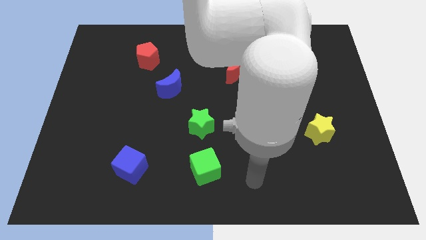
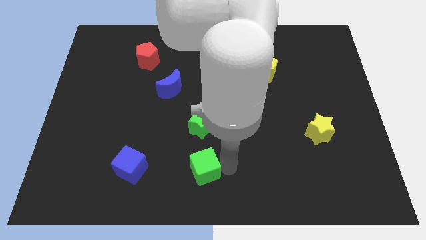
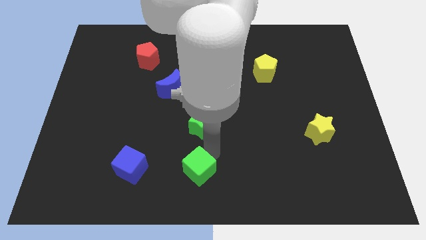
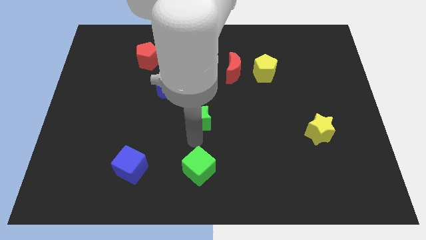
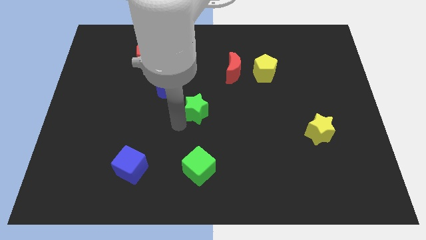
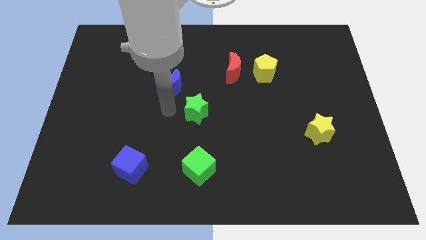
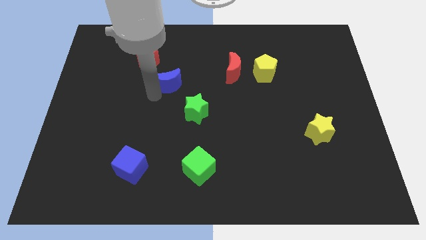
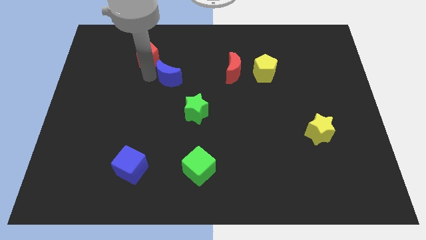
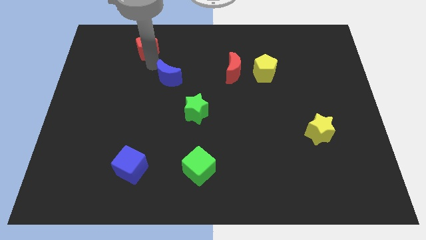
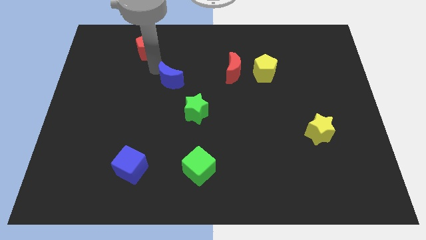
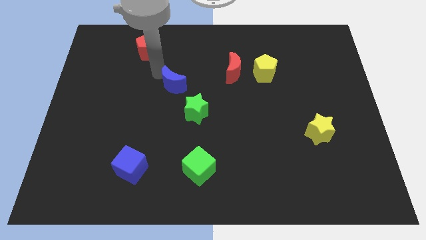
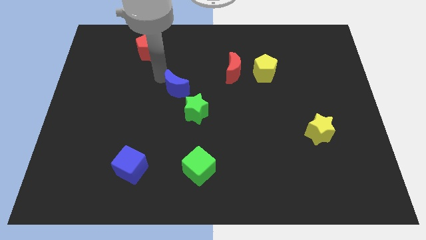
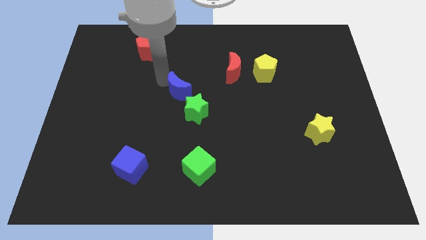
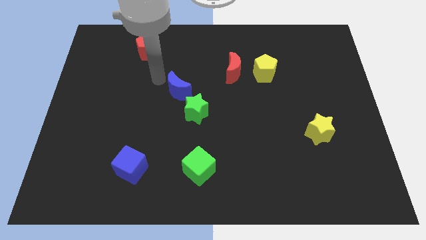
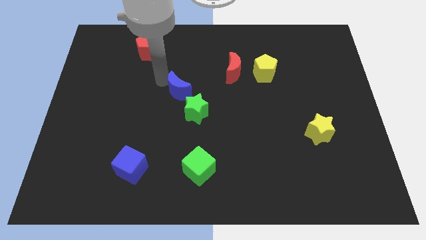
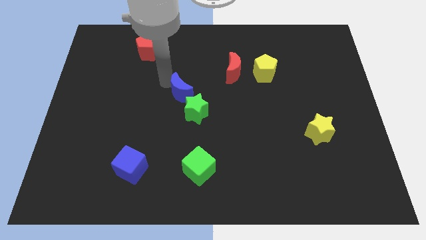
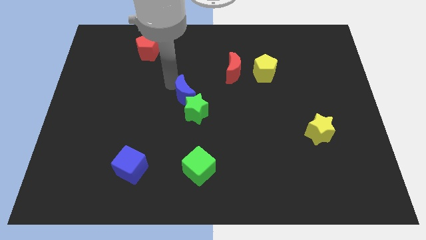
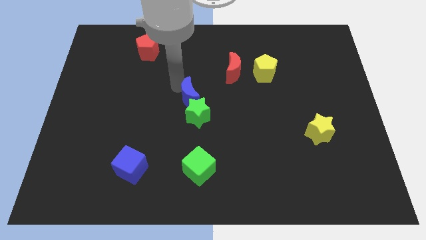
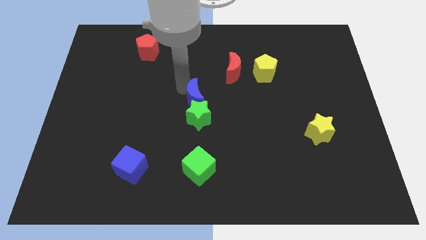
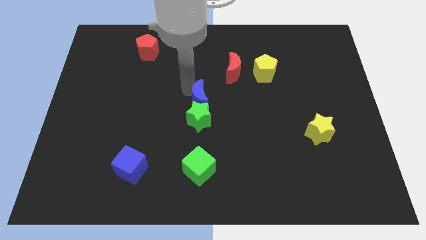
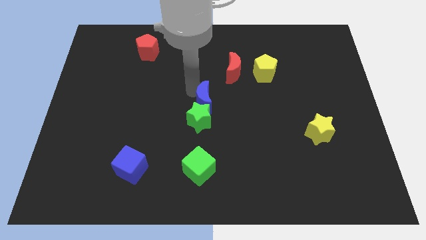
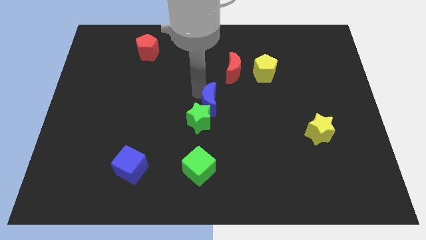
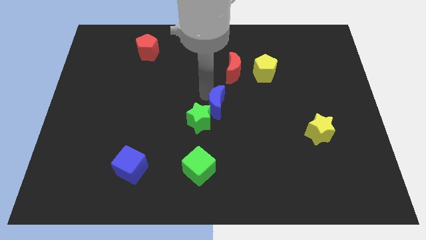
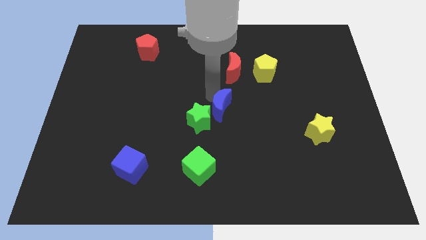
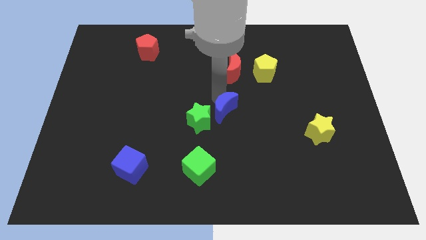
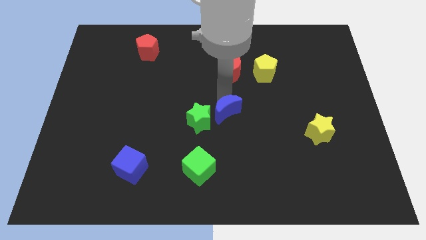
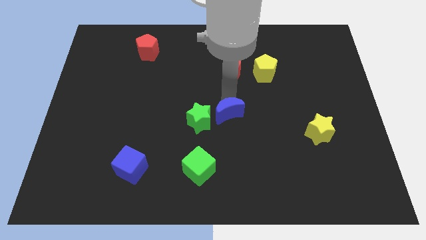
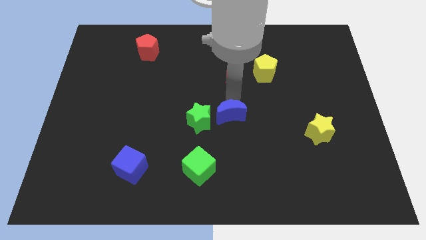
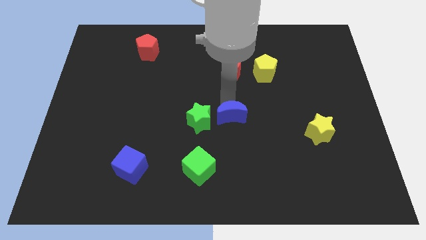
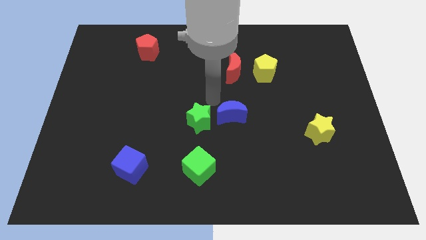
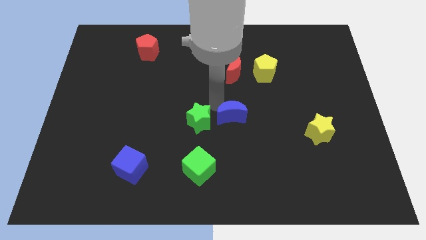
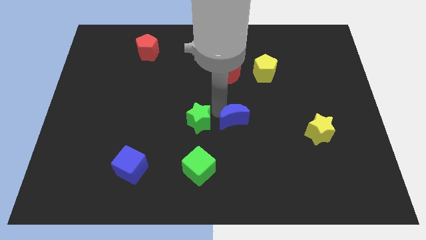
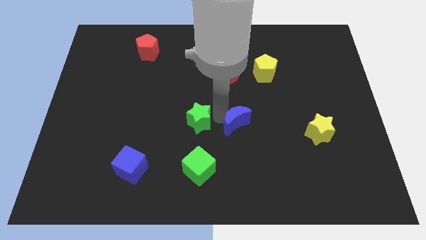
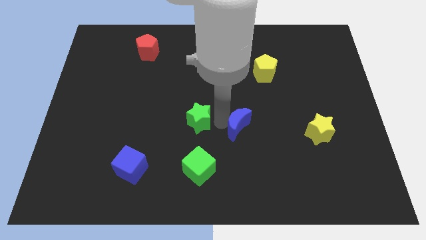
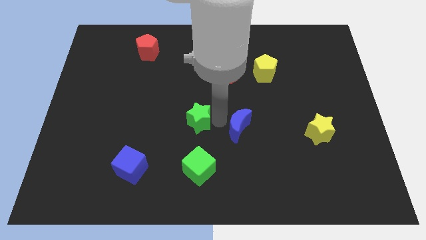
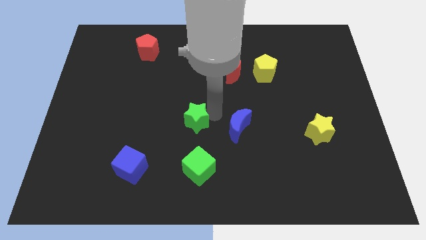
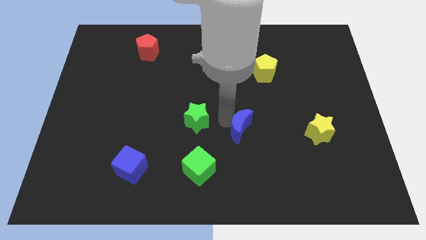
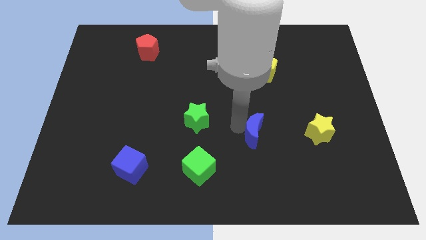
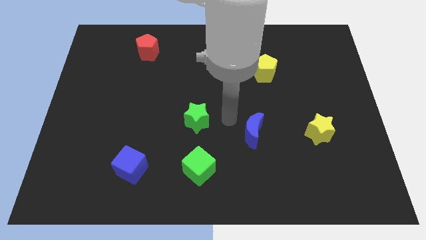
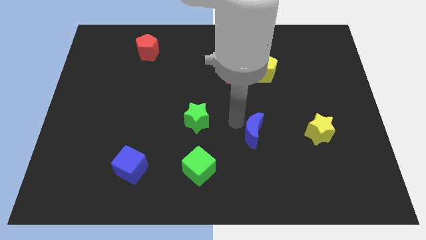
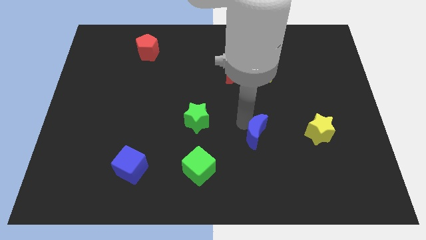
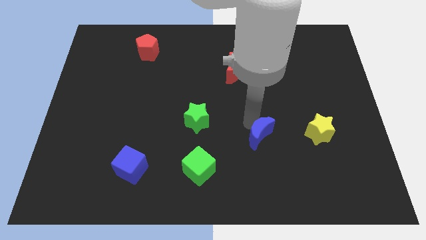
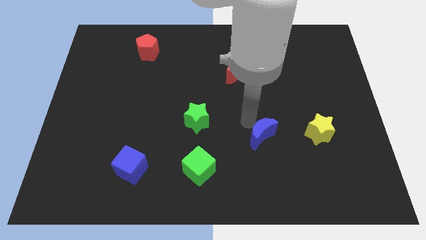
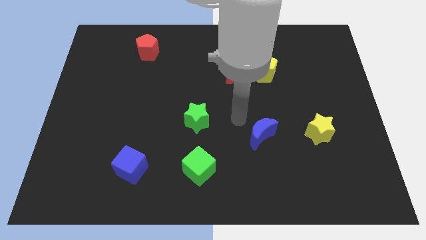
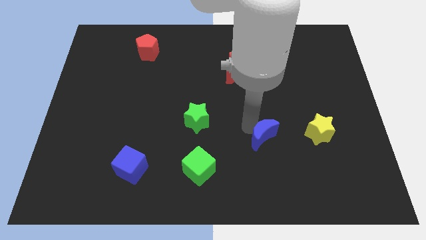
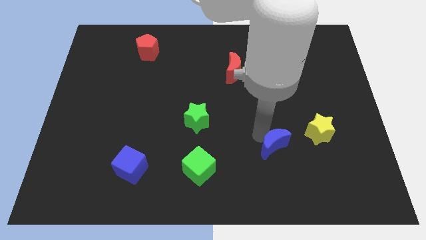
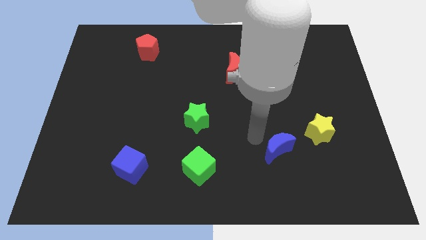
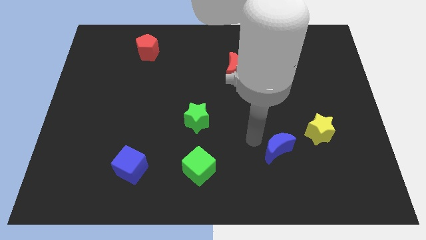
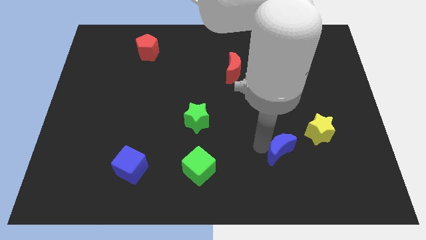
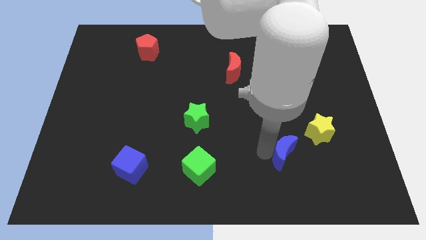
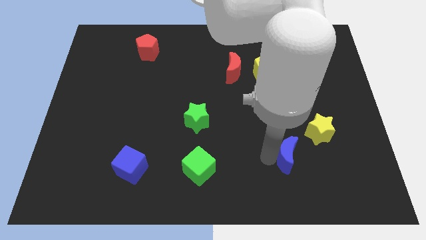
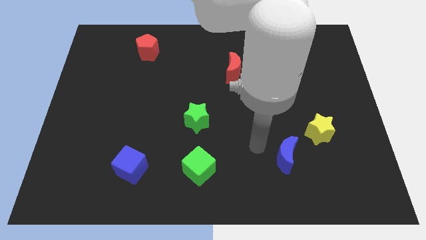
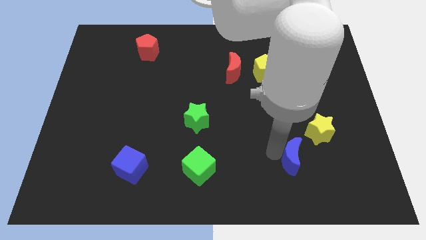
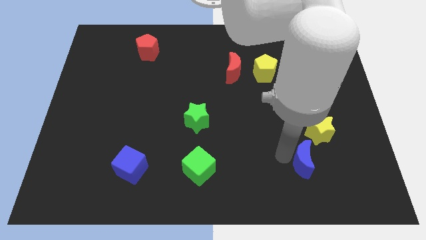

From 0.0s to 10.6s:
slide the blue moon to the bottom side of the yellow star

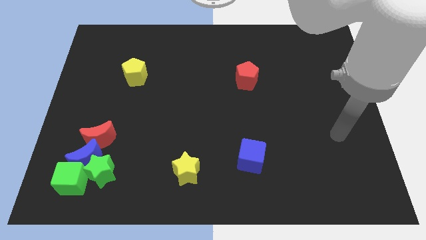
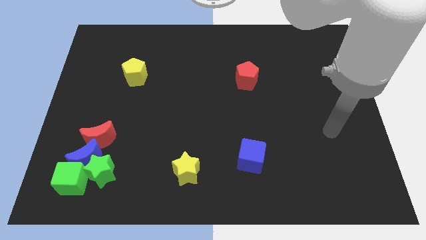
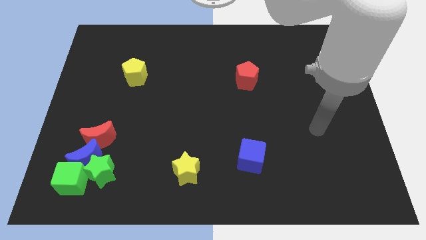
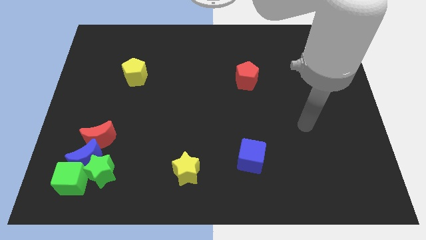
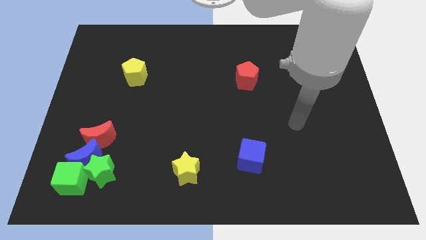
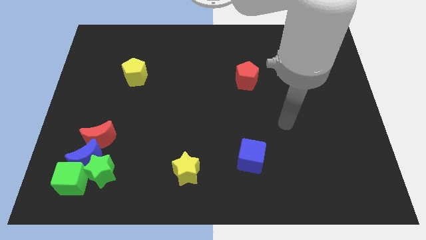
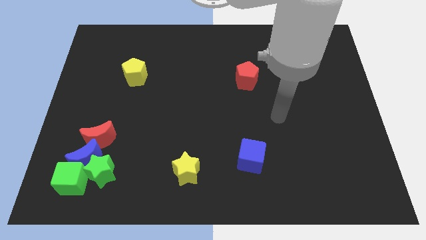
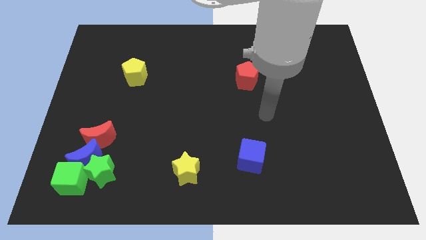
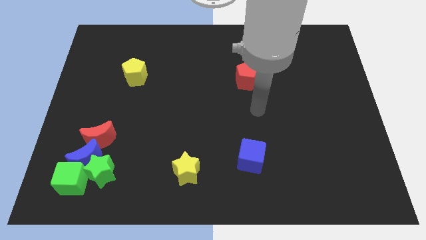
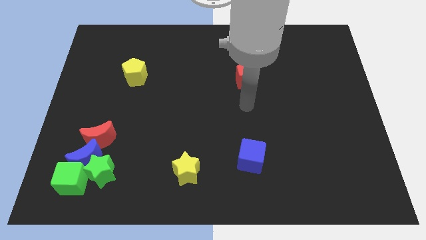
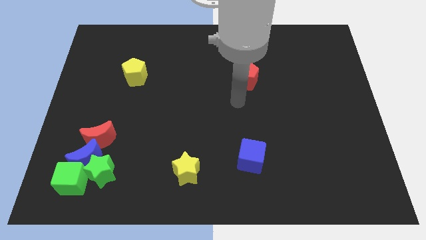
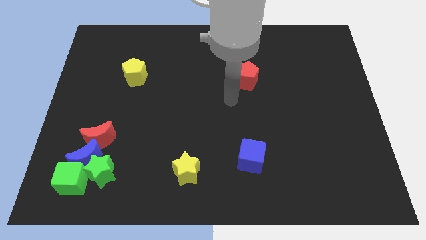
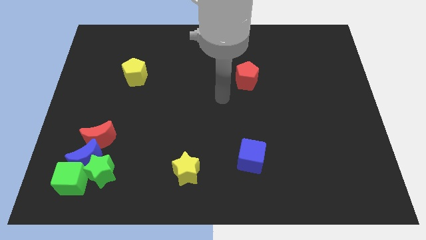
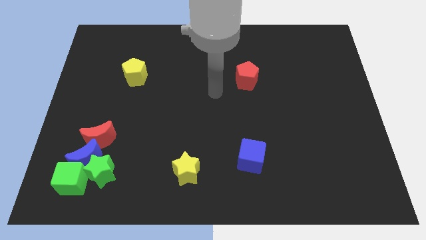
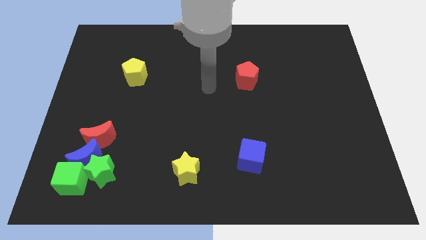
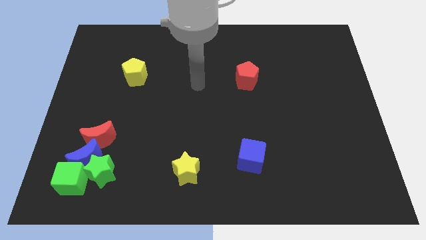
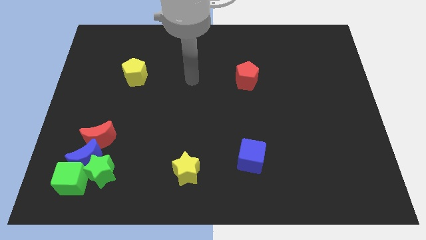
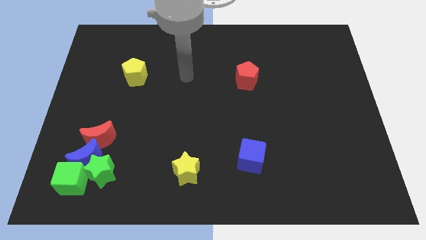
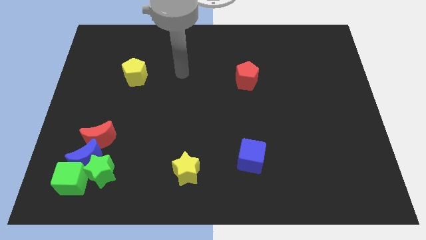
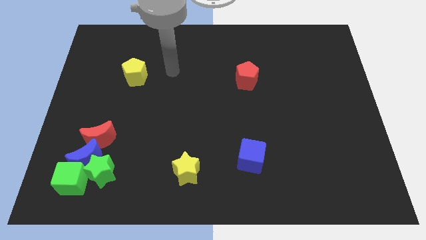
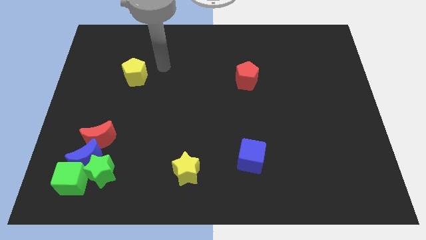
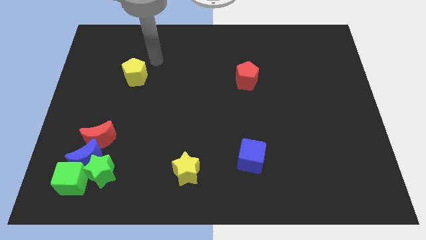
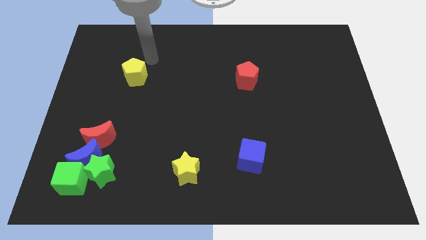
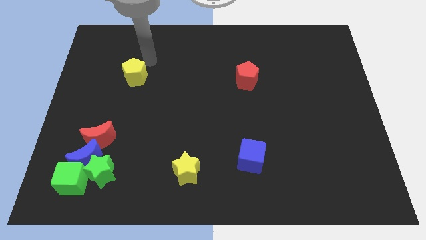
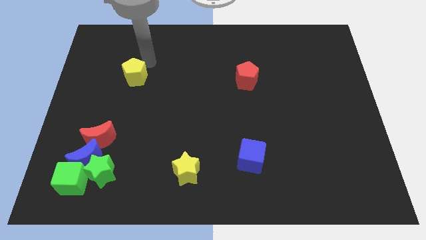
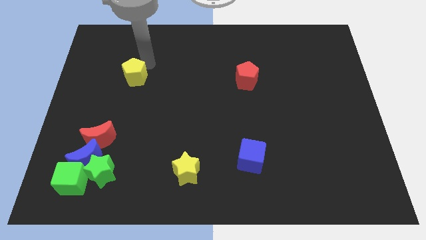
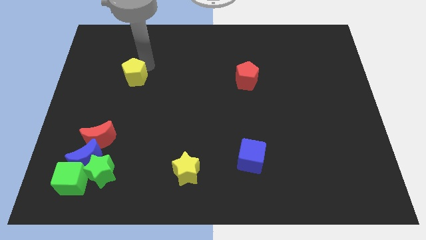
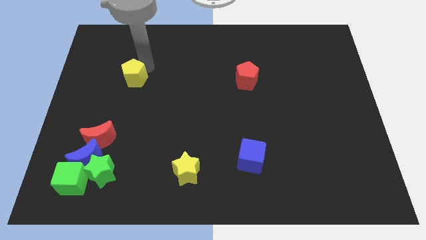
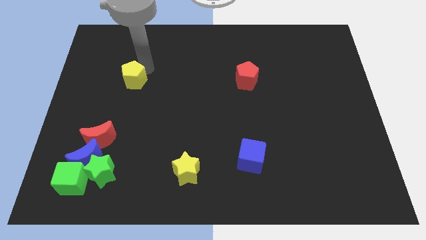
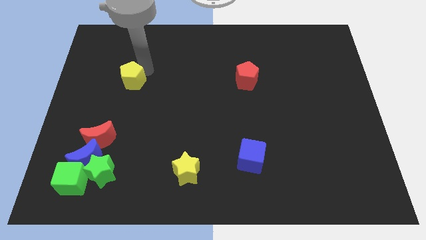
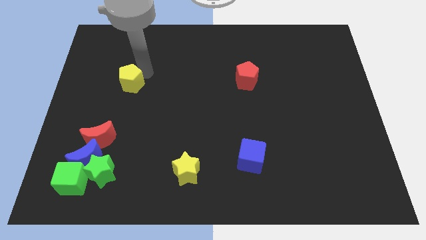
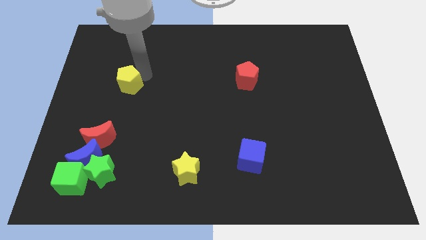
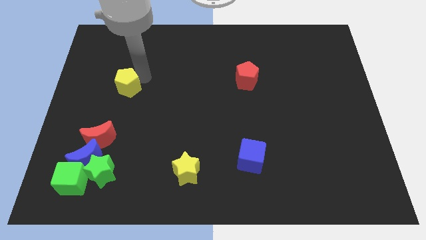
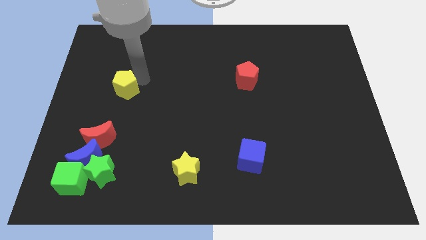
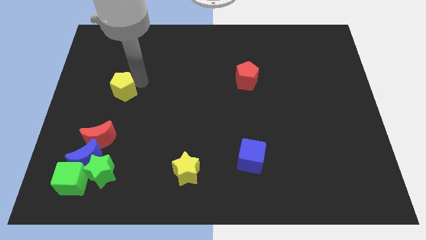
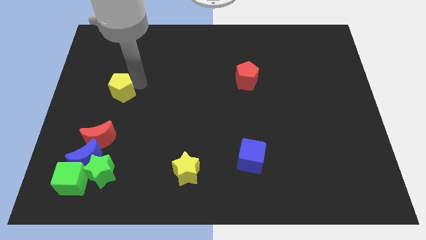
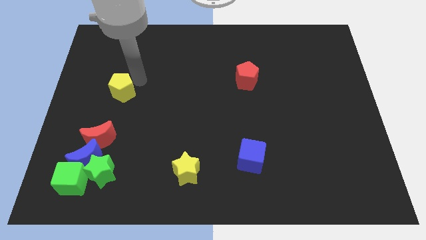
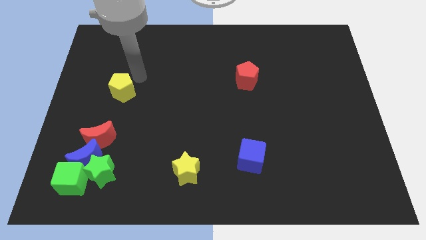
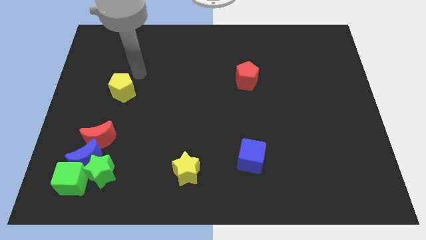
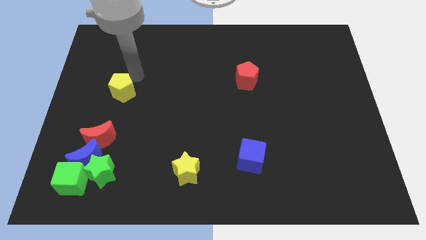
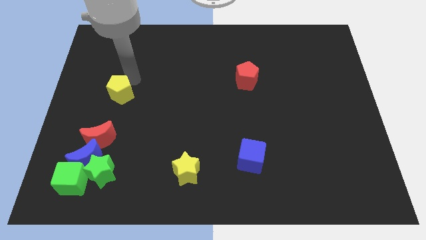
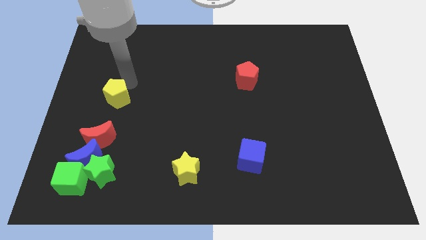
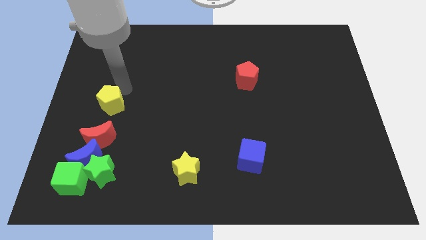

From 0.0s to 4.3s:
slide the yellow pentagon to the top of the blue moon
